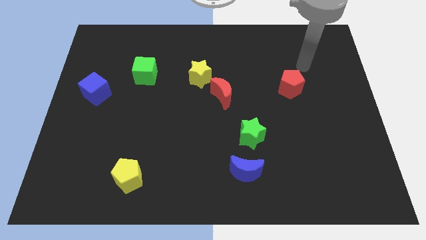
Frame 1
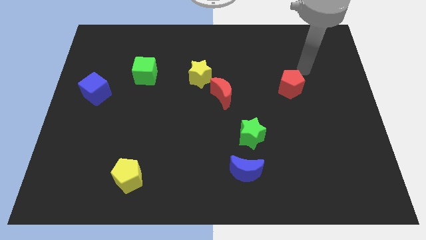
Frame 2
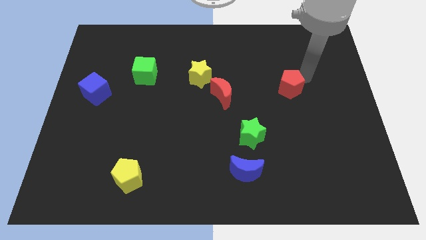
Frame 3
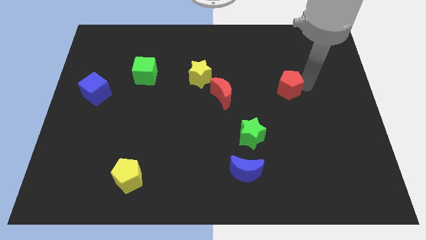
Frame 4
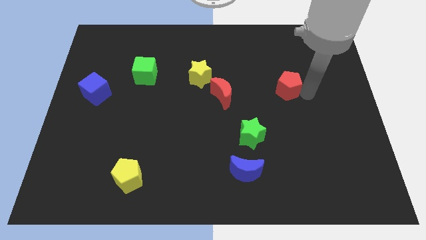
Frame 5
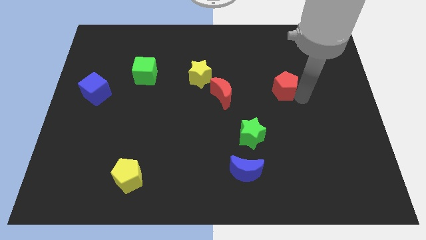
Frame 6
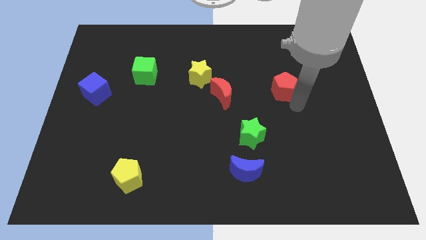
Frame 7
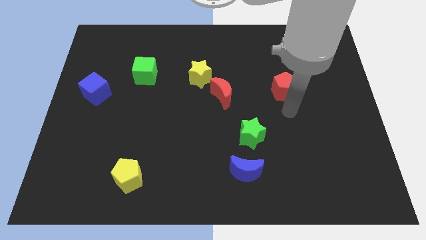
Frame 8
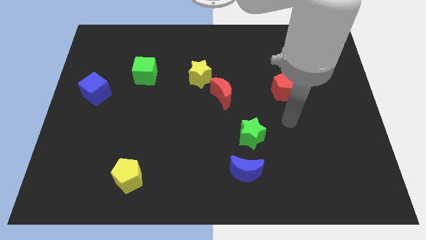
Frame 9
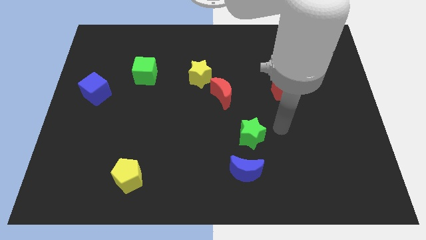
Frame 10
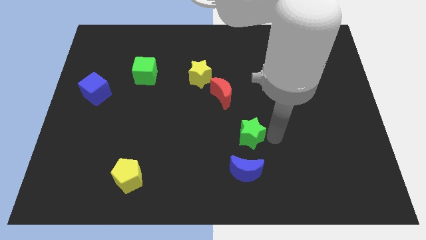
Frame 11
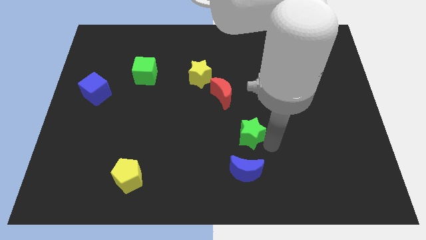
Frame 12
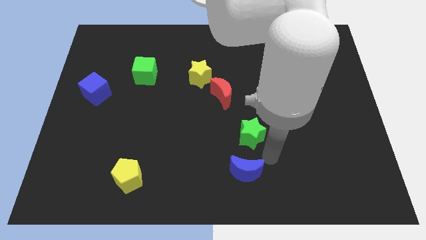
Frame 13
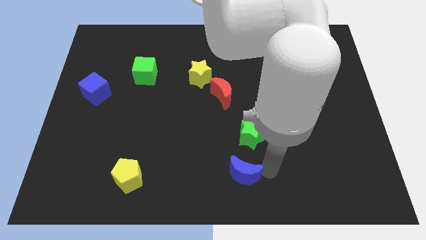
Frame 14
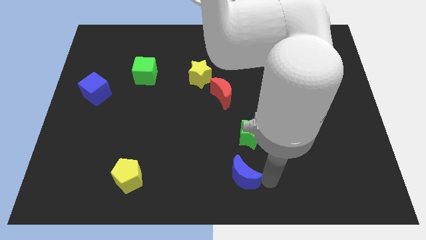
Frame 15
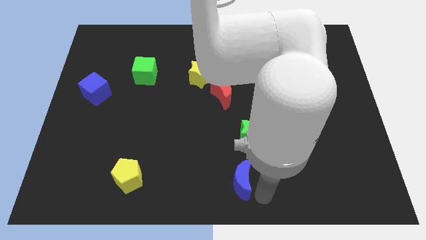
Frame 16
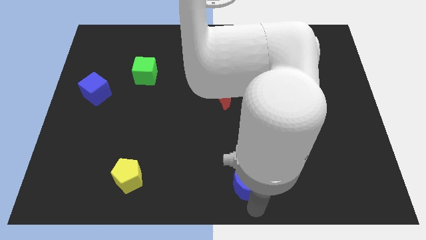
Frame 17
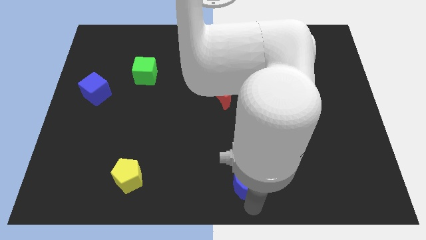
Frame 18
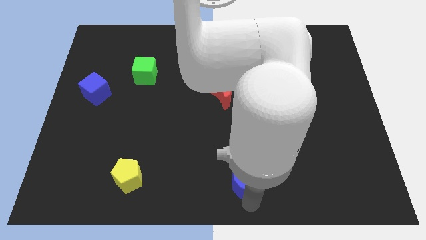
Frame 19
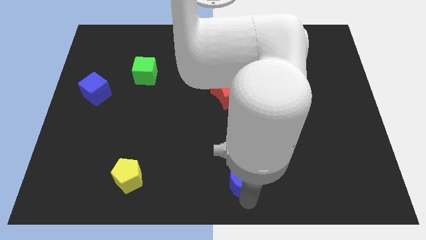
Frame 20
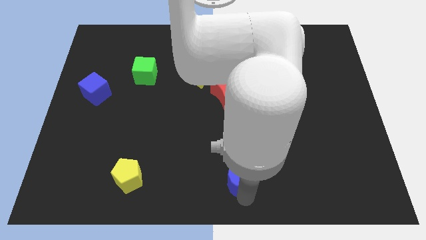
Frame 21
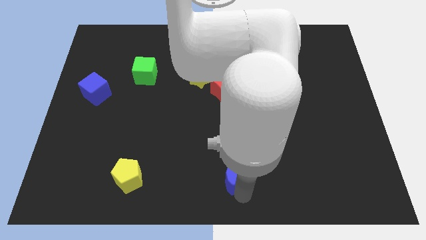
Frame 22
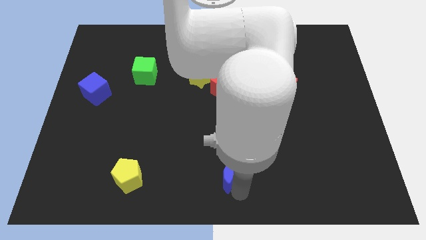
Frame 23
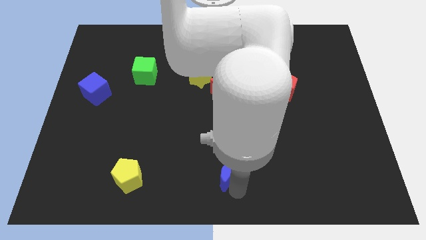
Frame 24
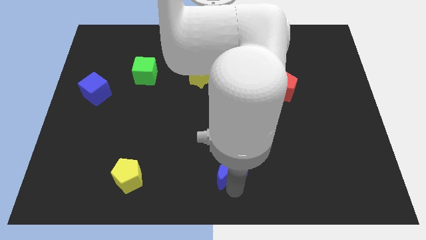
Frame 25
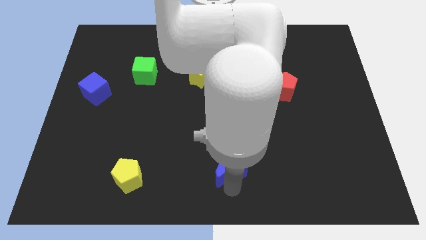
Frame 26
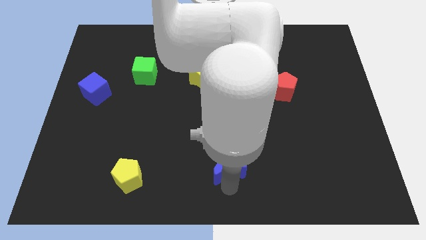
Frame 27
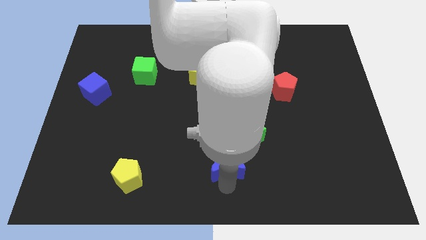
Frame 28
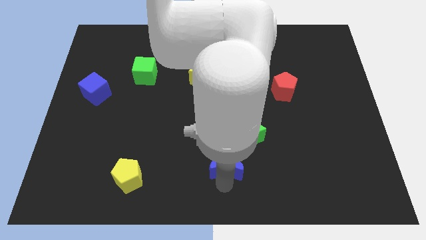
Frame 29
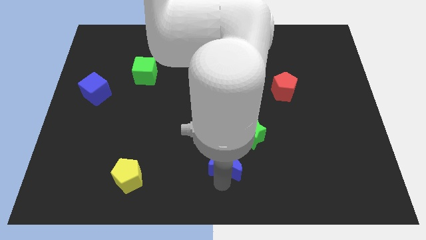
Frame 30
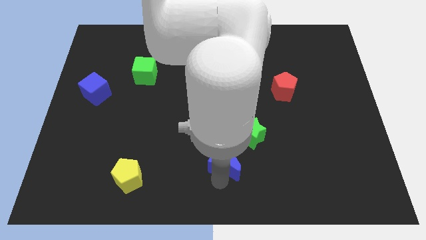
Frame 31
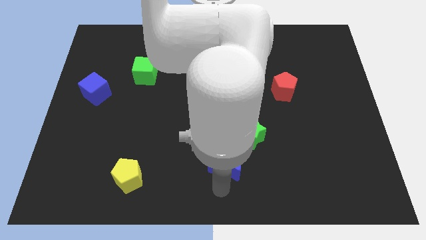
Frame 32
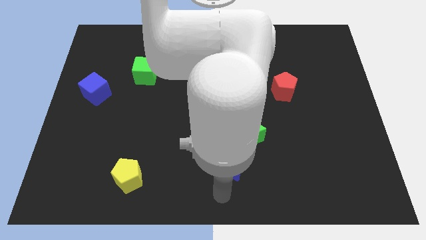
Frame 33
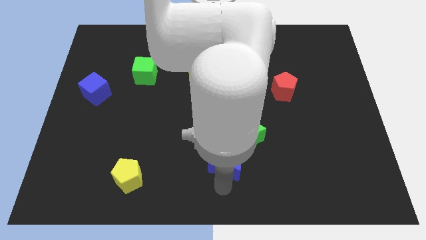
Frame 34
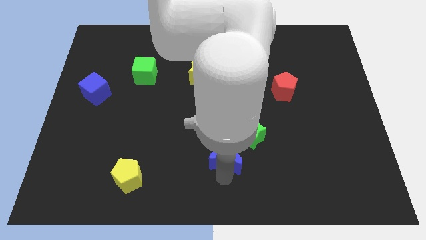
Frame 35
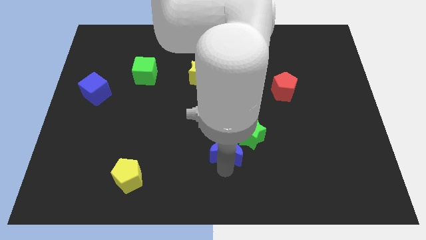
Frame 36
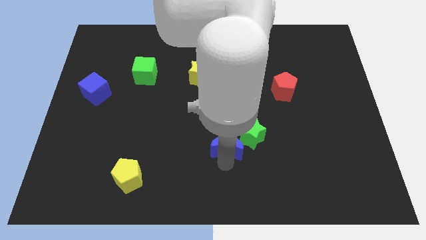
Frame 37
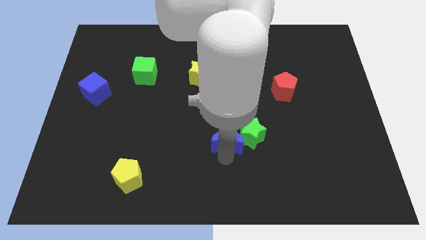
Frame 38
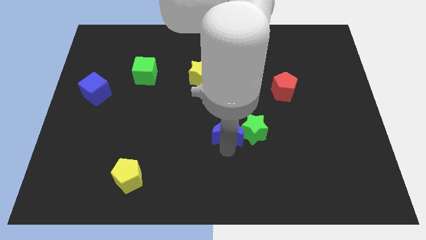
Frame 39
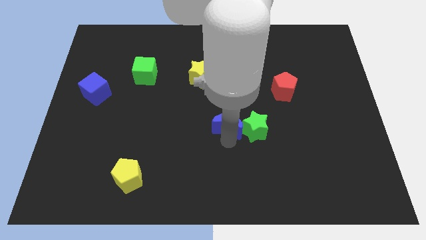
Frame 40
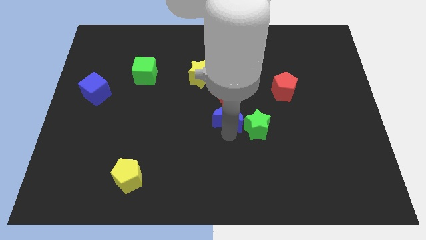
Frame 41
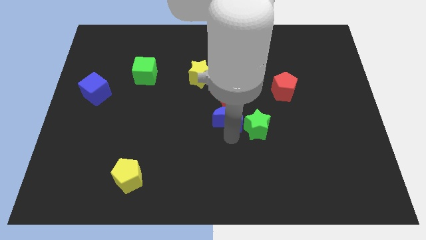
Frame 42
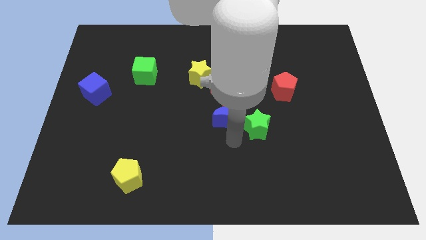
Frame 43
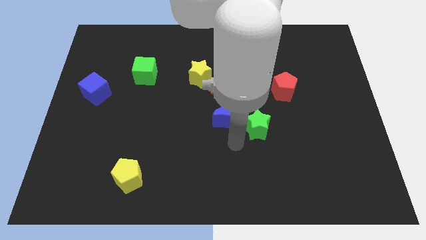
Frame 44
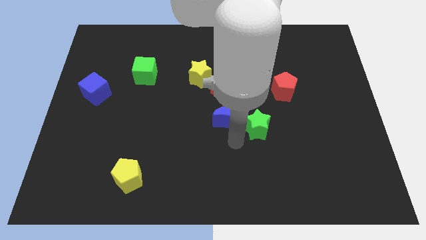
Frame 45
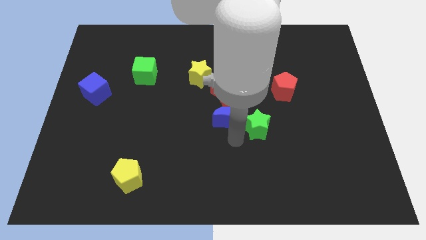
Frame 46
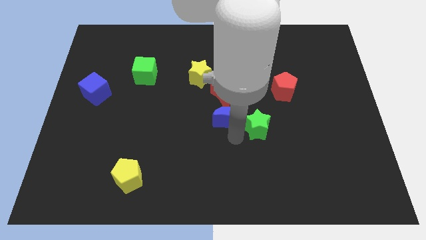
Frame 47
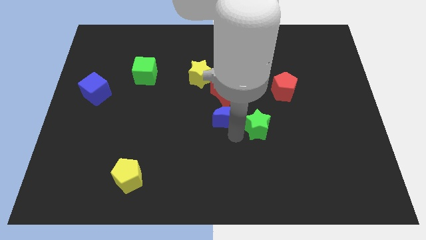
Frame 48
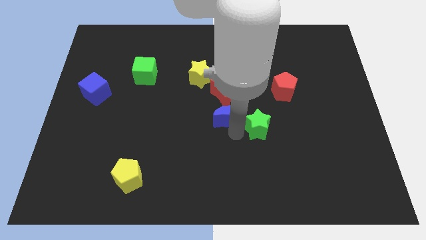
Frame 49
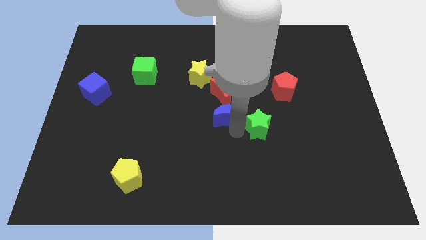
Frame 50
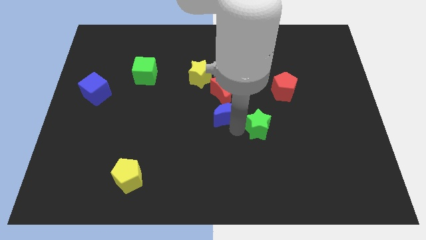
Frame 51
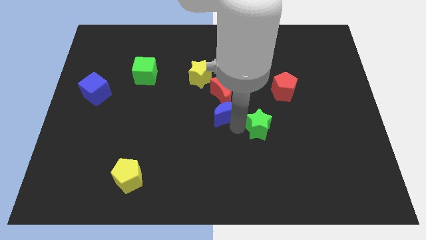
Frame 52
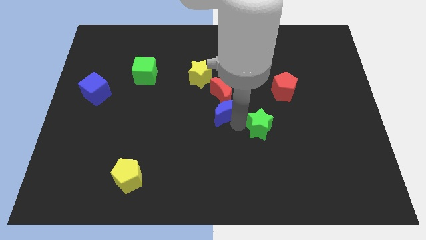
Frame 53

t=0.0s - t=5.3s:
slide the blue moon close to the red moon
